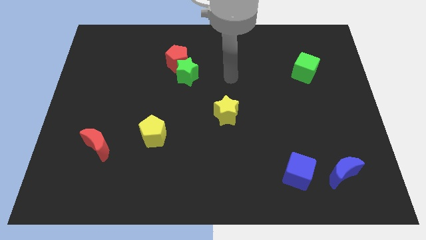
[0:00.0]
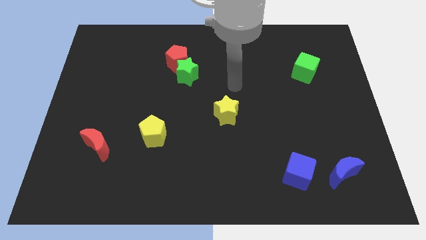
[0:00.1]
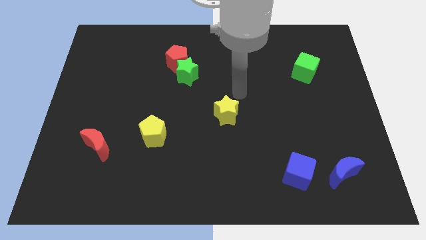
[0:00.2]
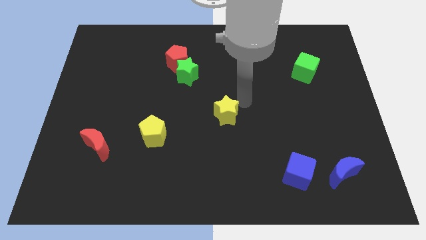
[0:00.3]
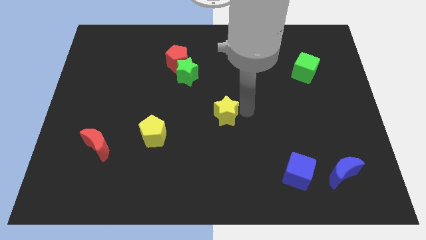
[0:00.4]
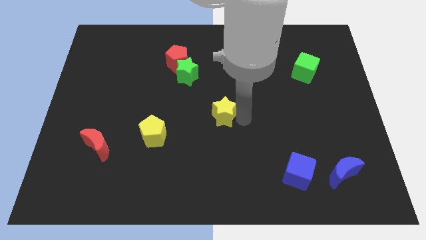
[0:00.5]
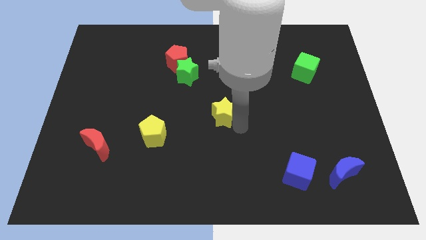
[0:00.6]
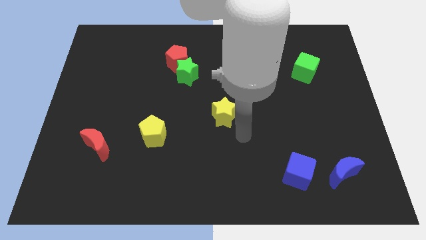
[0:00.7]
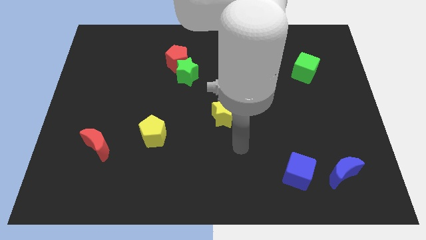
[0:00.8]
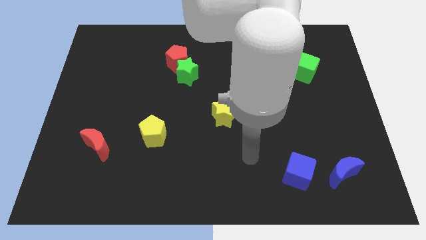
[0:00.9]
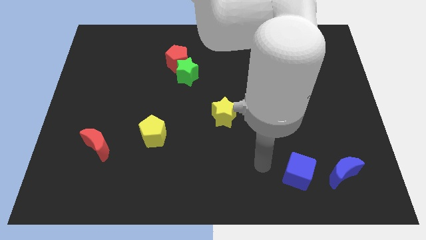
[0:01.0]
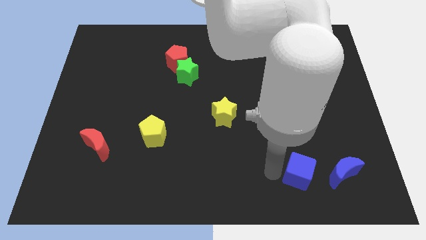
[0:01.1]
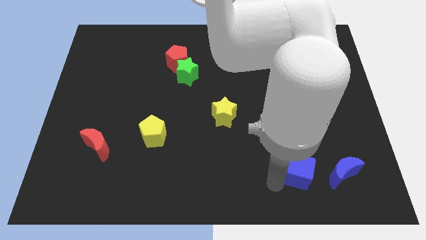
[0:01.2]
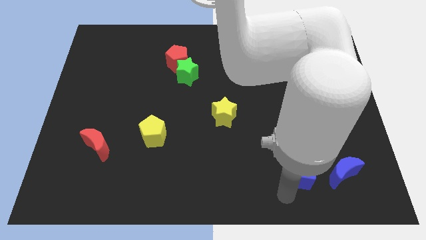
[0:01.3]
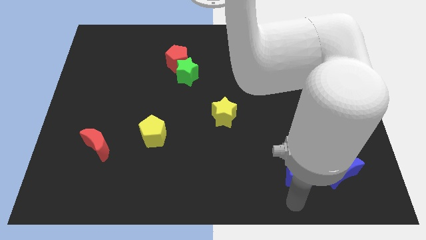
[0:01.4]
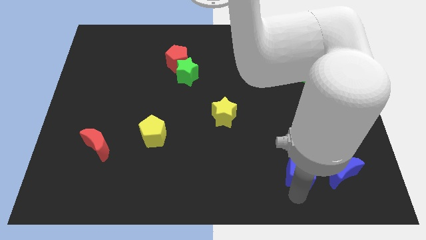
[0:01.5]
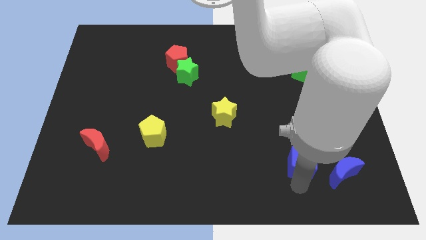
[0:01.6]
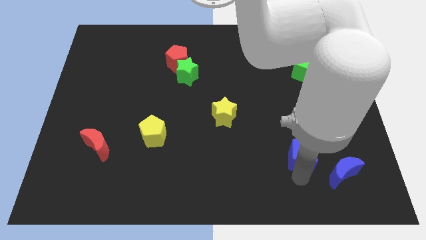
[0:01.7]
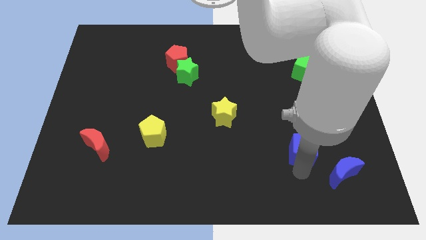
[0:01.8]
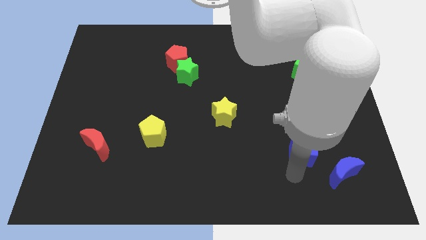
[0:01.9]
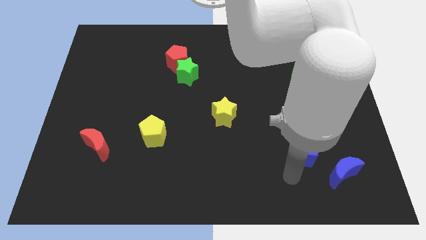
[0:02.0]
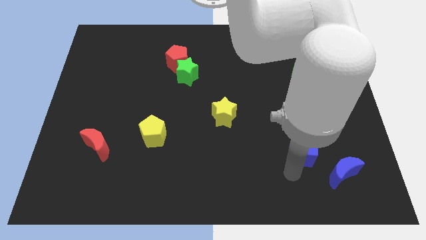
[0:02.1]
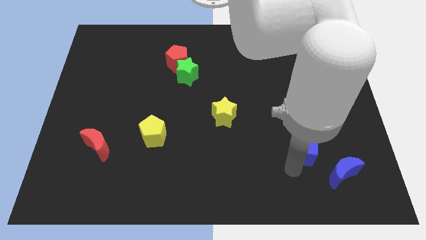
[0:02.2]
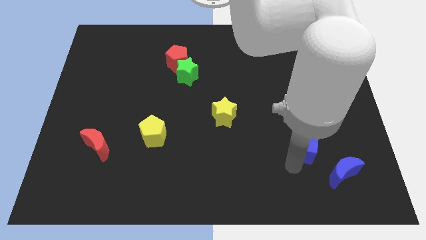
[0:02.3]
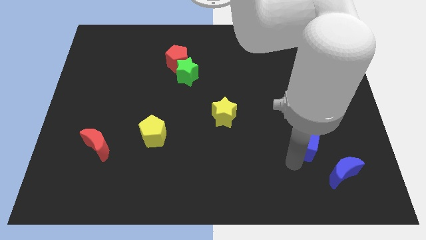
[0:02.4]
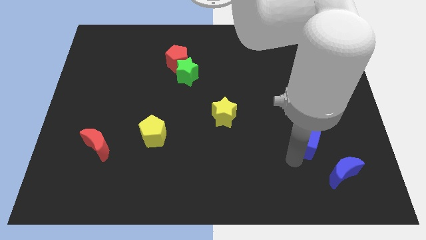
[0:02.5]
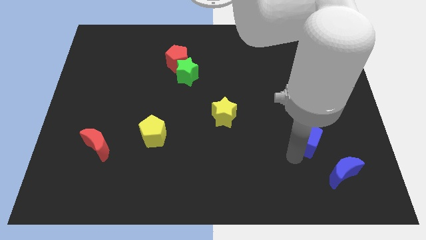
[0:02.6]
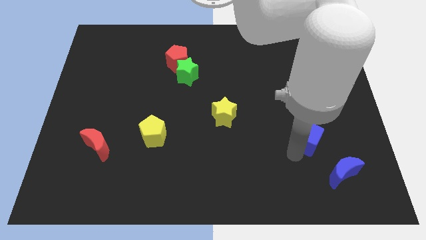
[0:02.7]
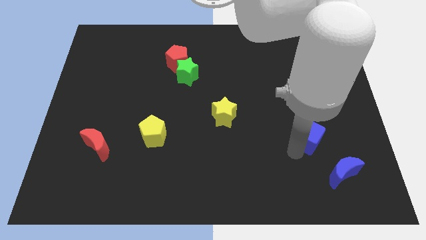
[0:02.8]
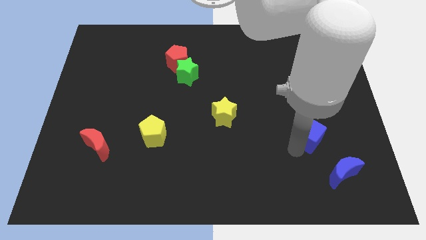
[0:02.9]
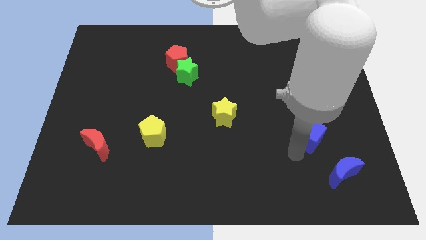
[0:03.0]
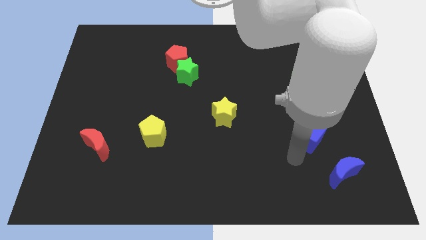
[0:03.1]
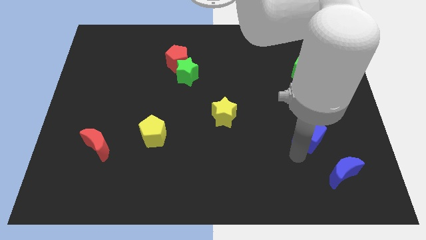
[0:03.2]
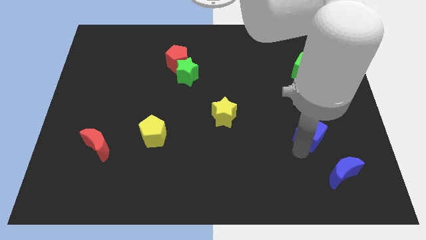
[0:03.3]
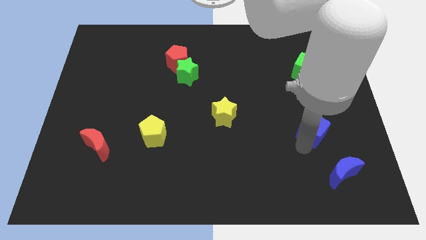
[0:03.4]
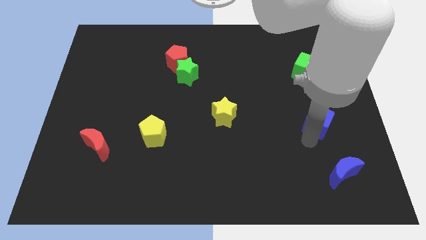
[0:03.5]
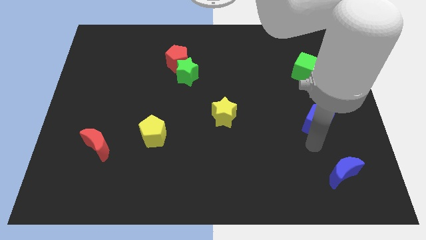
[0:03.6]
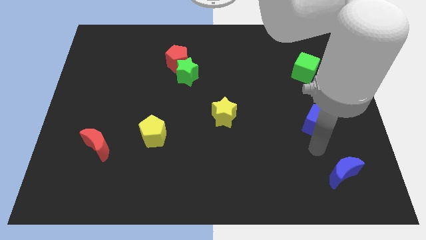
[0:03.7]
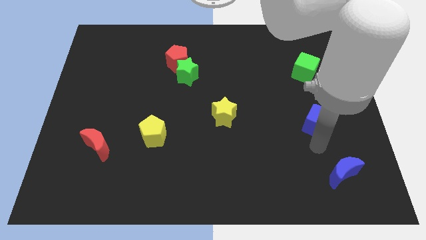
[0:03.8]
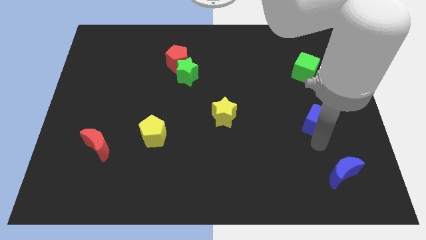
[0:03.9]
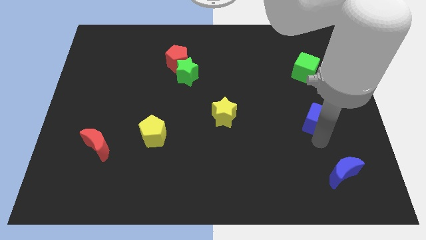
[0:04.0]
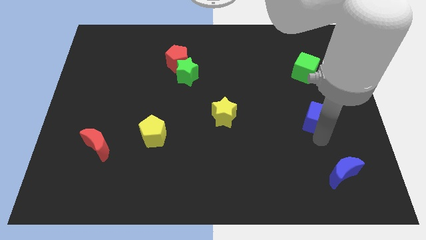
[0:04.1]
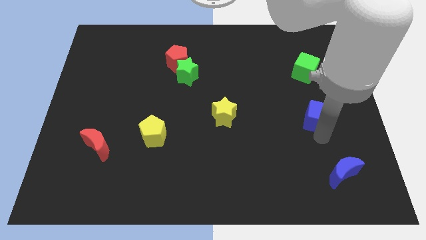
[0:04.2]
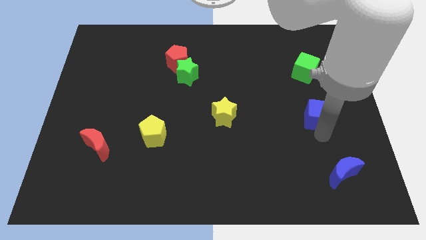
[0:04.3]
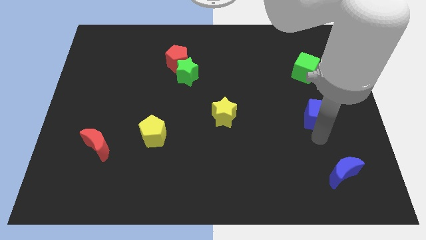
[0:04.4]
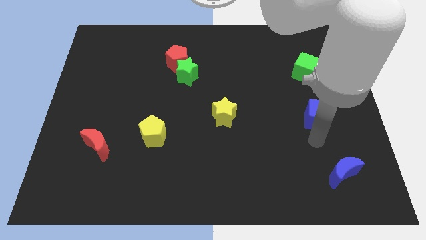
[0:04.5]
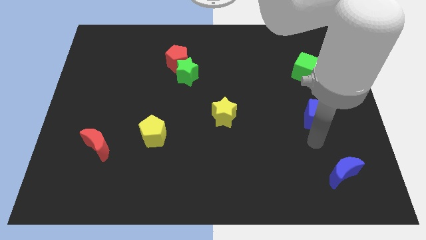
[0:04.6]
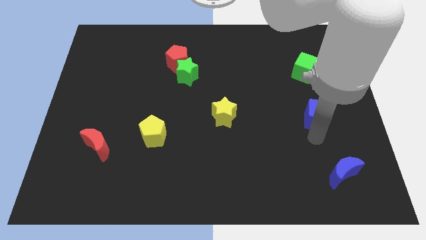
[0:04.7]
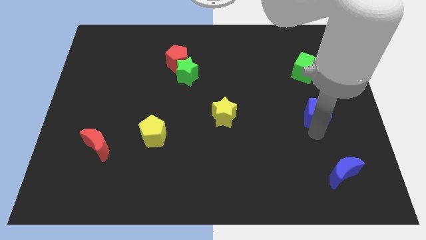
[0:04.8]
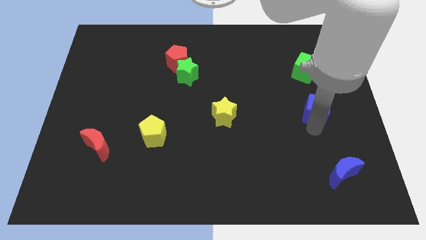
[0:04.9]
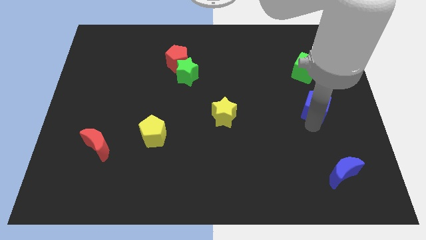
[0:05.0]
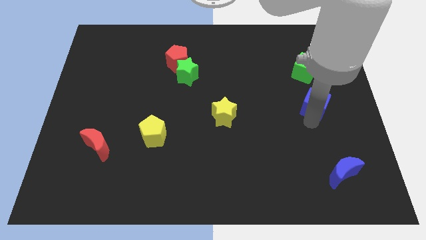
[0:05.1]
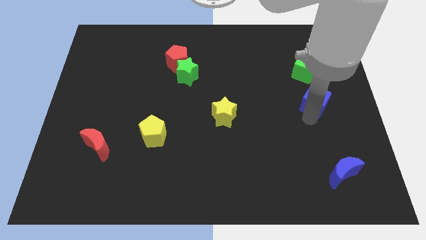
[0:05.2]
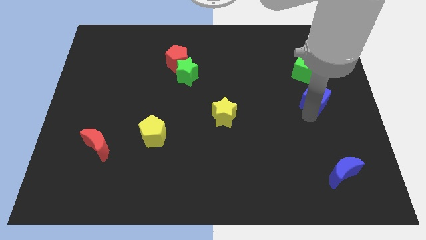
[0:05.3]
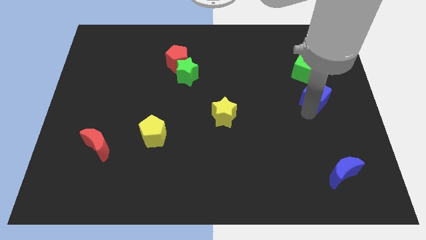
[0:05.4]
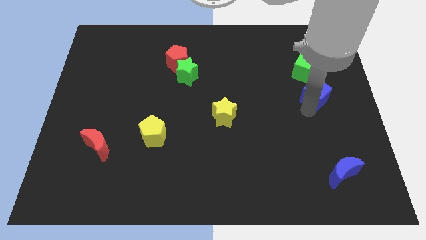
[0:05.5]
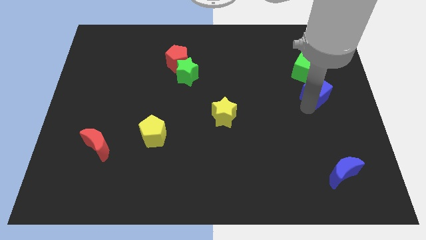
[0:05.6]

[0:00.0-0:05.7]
push the blue cube to the bottom right side of the green cube

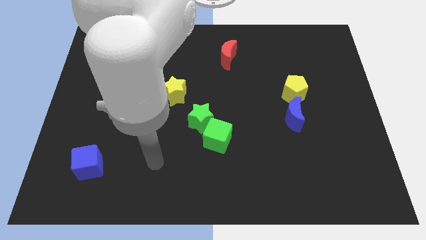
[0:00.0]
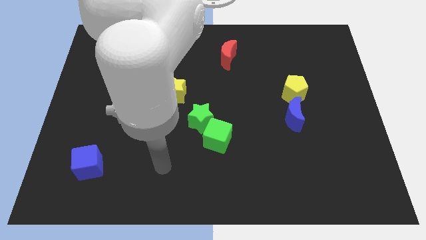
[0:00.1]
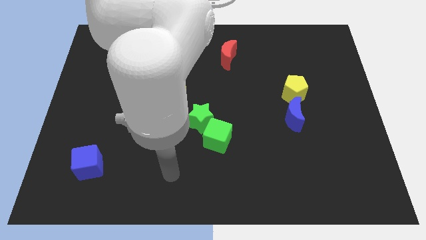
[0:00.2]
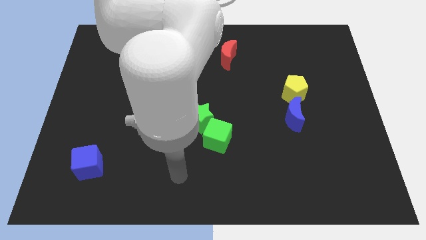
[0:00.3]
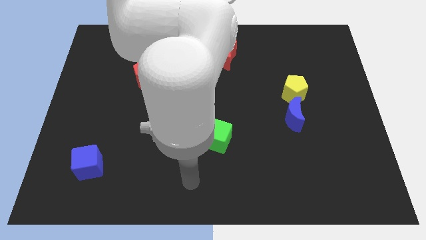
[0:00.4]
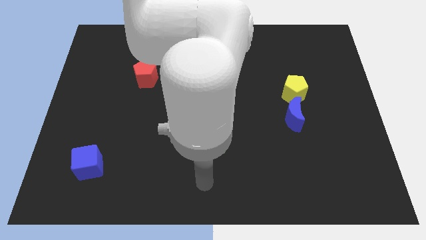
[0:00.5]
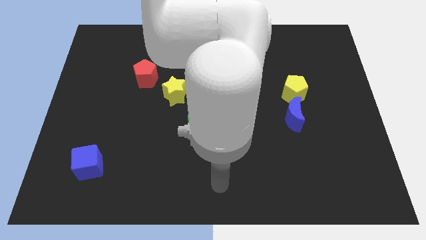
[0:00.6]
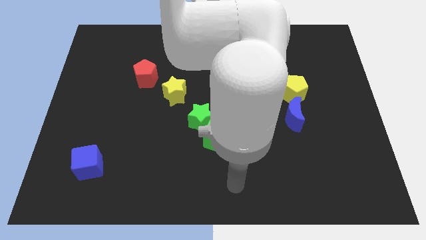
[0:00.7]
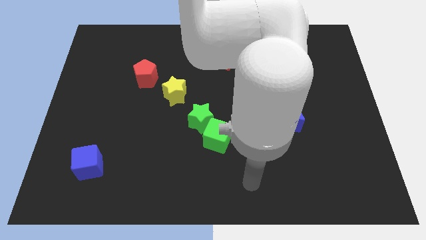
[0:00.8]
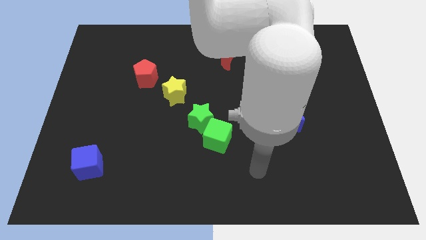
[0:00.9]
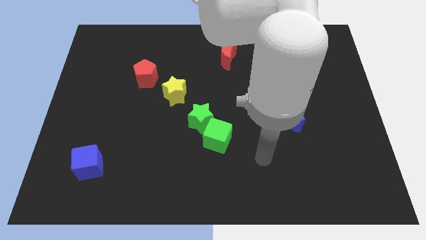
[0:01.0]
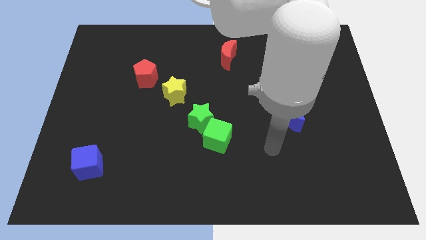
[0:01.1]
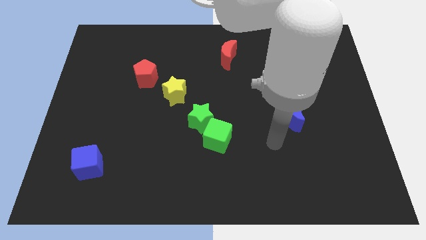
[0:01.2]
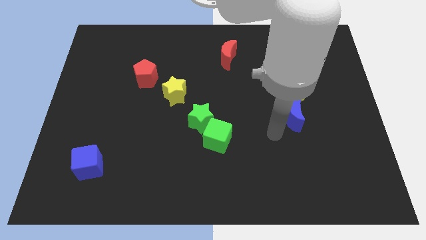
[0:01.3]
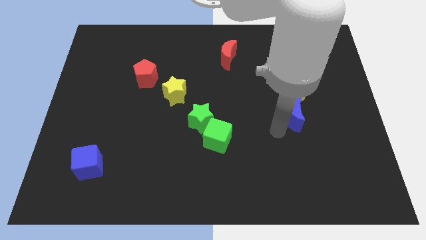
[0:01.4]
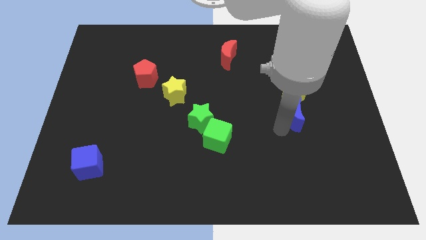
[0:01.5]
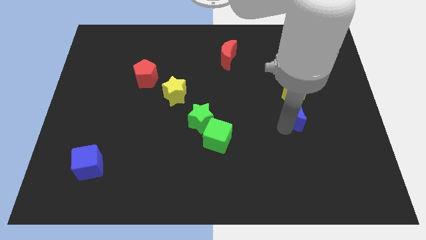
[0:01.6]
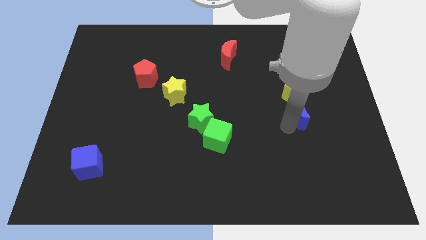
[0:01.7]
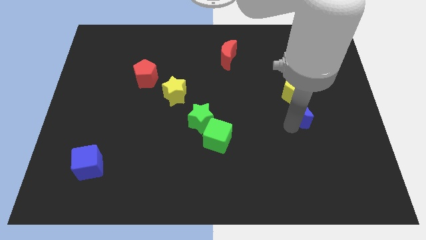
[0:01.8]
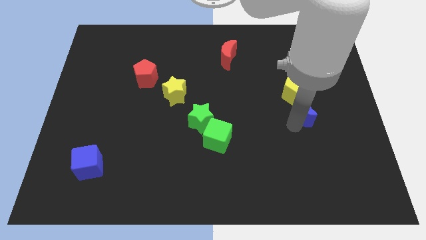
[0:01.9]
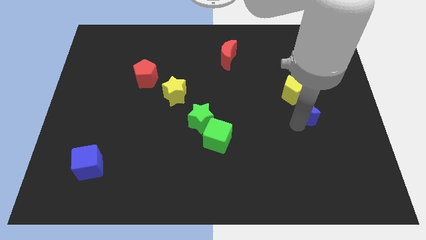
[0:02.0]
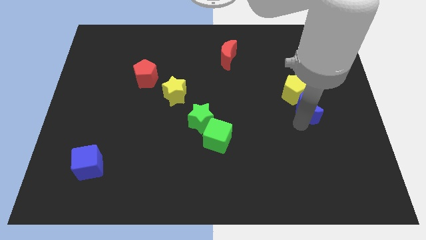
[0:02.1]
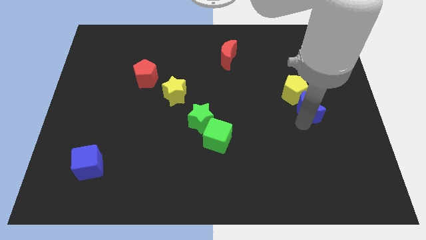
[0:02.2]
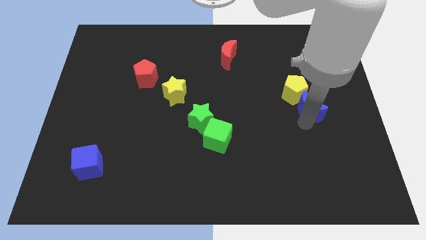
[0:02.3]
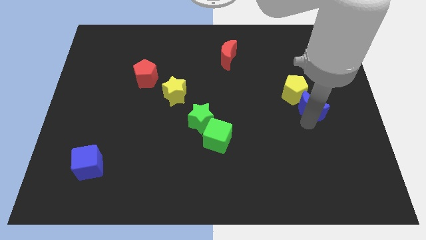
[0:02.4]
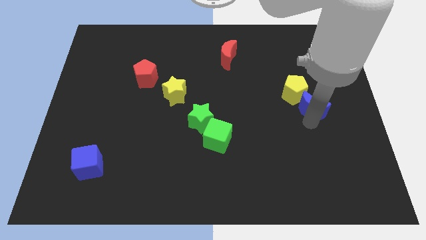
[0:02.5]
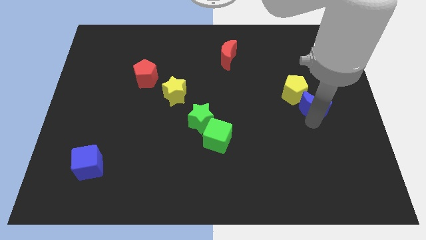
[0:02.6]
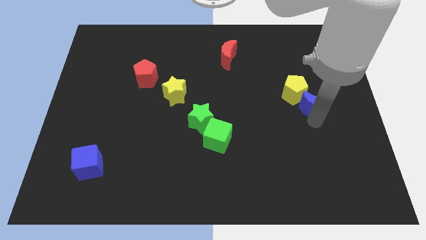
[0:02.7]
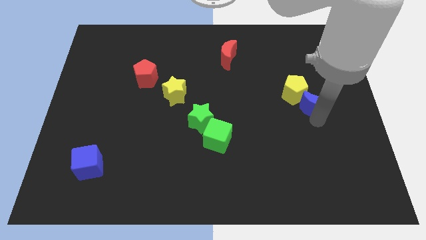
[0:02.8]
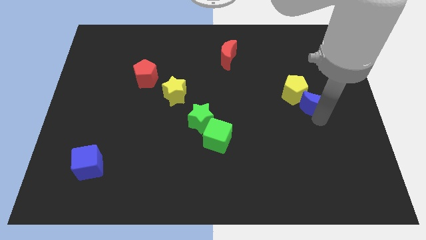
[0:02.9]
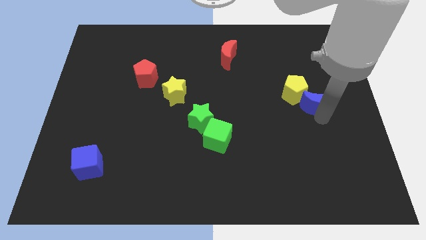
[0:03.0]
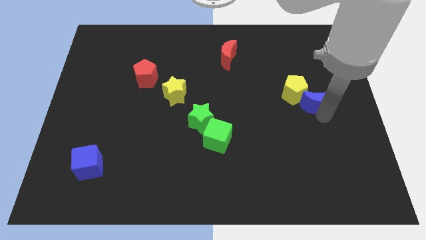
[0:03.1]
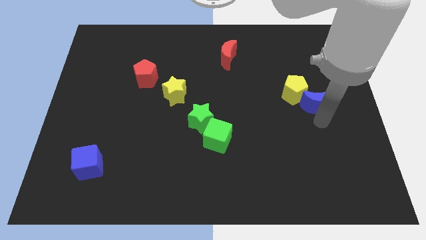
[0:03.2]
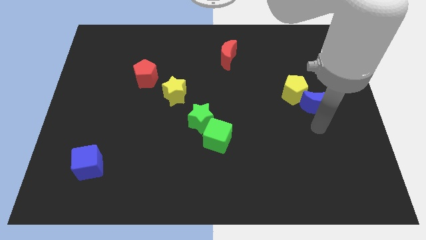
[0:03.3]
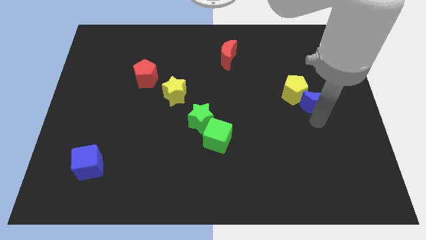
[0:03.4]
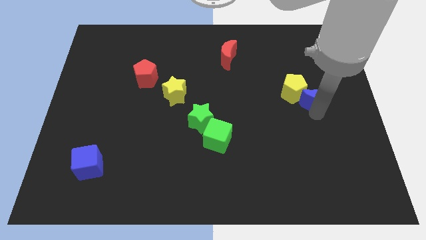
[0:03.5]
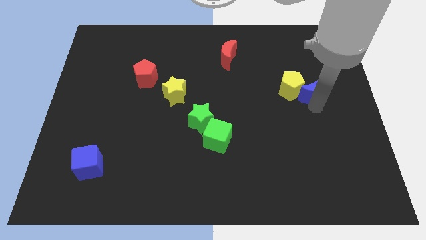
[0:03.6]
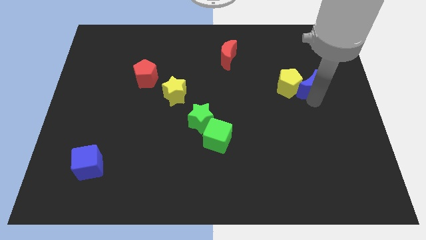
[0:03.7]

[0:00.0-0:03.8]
put the blue moon to the top right of the yellow pentagon
